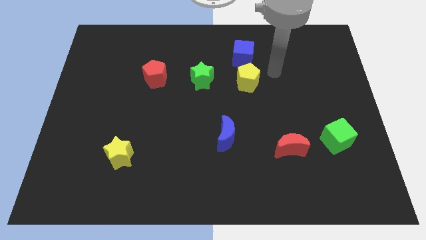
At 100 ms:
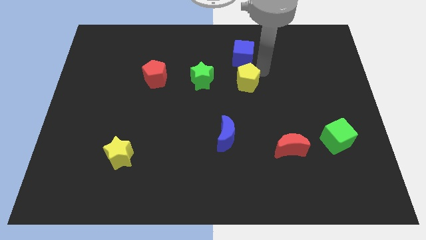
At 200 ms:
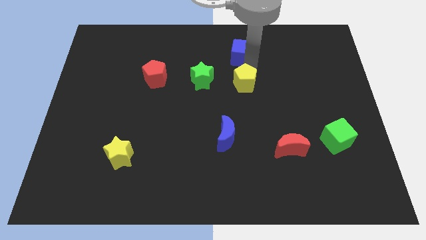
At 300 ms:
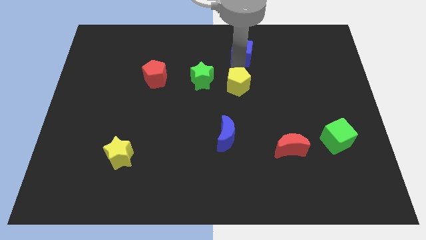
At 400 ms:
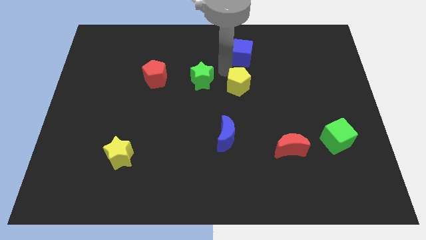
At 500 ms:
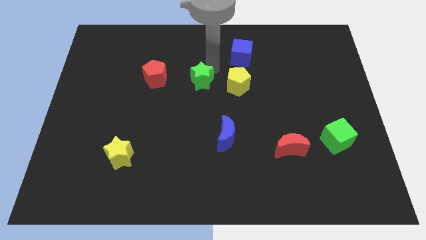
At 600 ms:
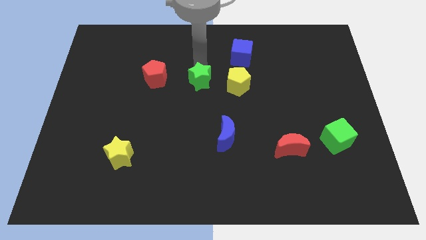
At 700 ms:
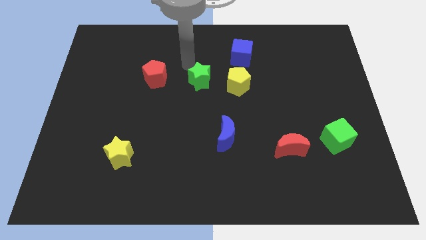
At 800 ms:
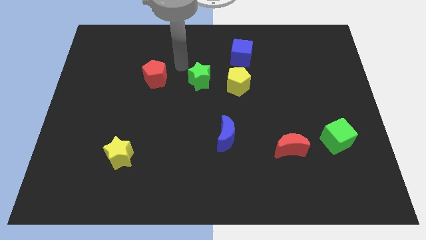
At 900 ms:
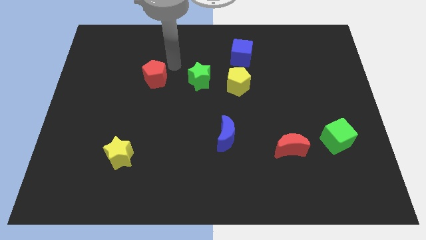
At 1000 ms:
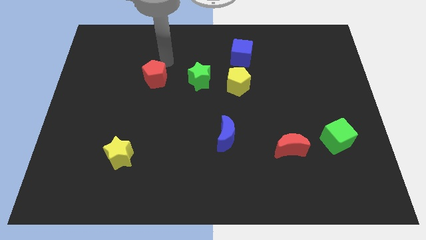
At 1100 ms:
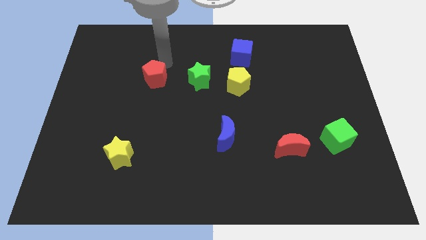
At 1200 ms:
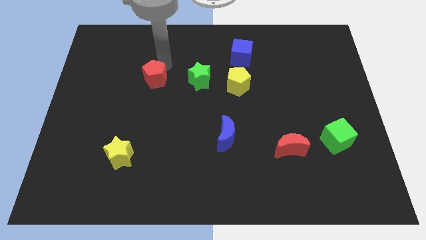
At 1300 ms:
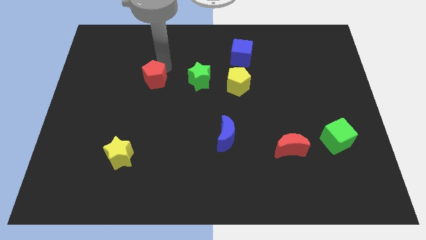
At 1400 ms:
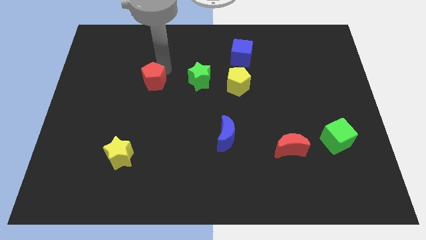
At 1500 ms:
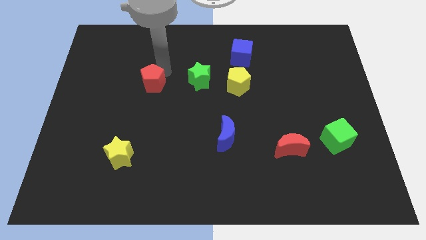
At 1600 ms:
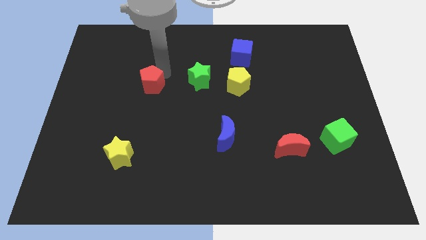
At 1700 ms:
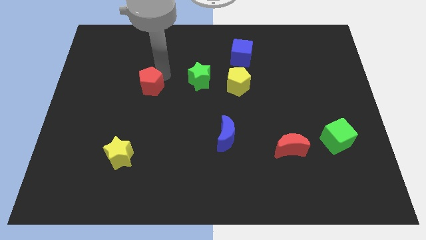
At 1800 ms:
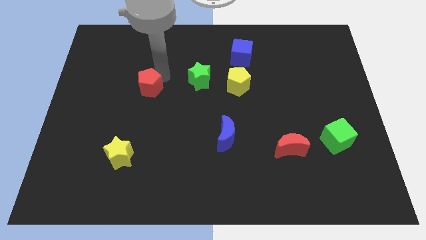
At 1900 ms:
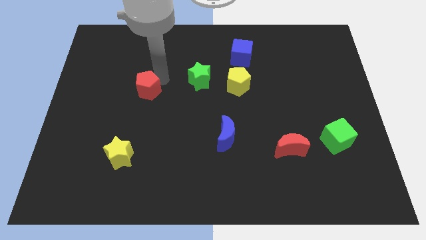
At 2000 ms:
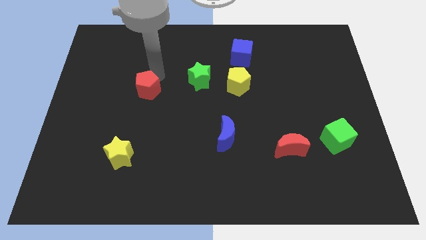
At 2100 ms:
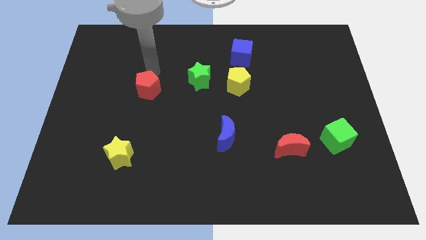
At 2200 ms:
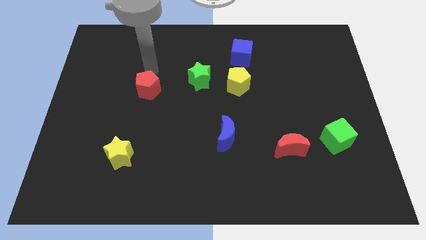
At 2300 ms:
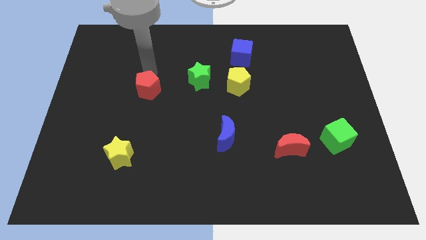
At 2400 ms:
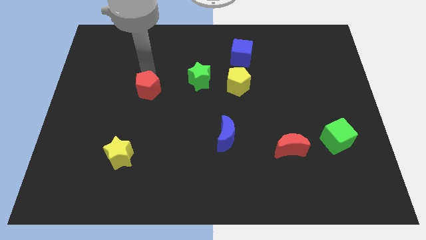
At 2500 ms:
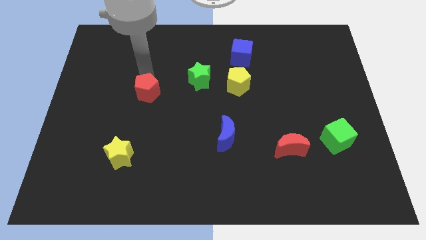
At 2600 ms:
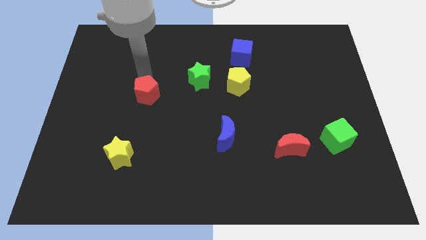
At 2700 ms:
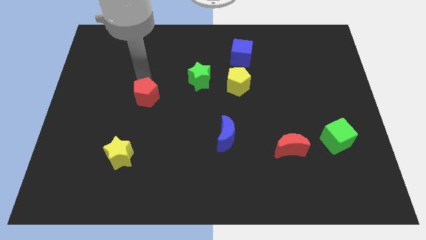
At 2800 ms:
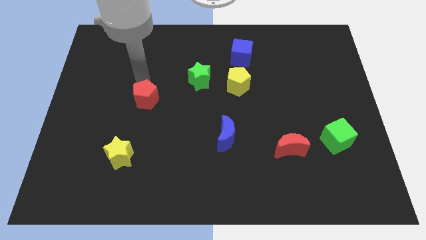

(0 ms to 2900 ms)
push the red pentagon downwards somewhat

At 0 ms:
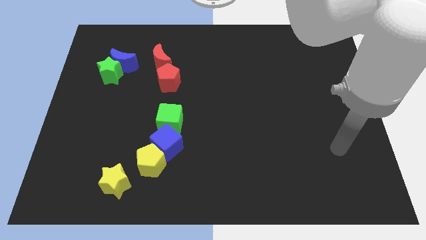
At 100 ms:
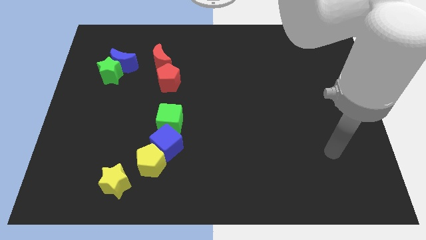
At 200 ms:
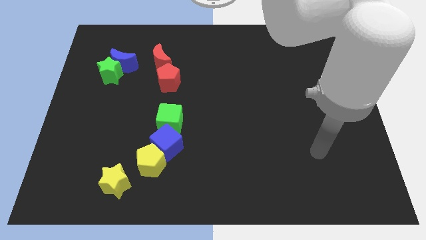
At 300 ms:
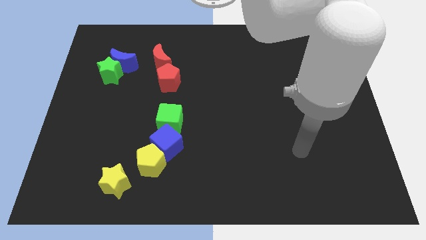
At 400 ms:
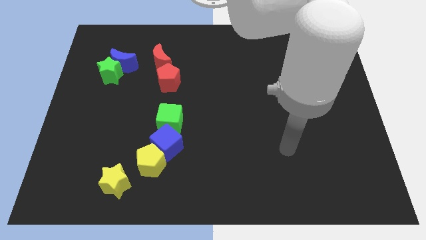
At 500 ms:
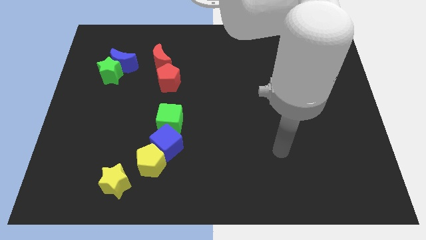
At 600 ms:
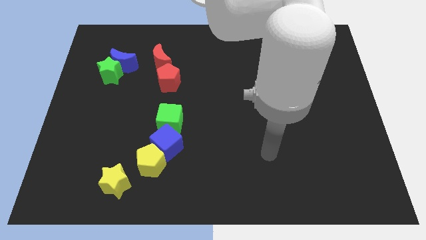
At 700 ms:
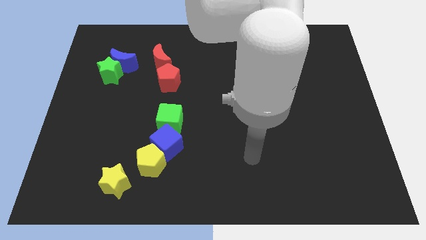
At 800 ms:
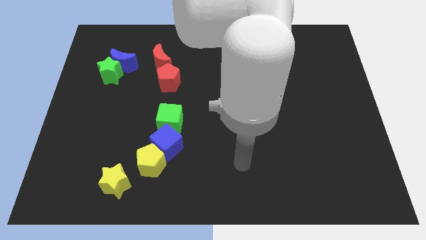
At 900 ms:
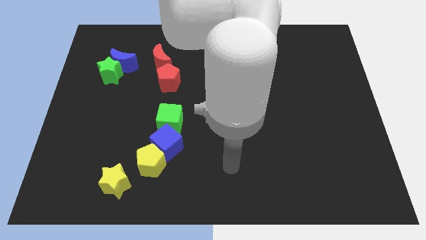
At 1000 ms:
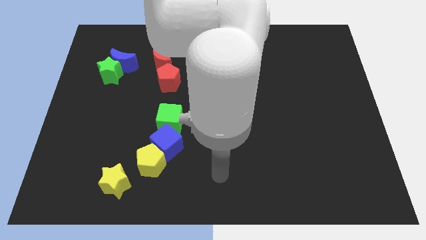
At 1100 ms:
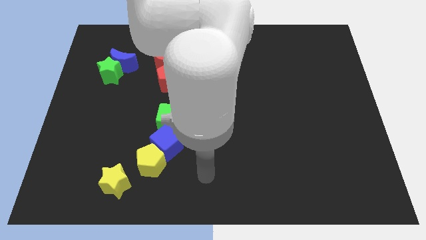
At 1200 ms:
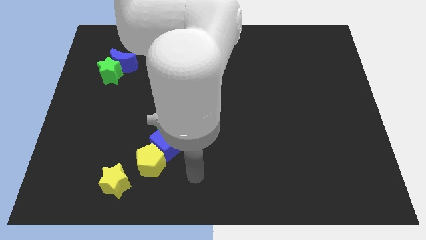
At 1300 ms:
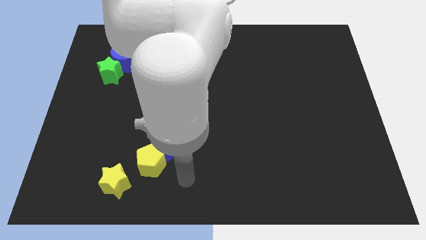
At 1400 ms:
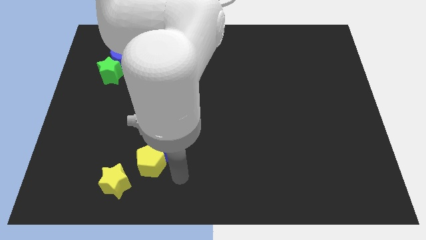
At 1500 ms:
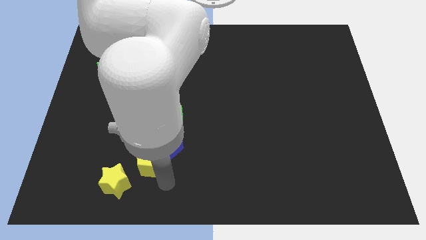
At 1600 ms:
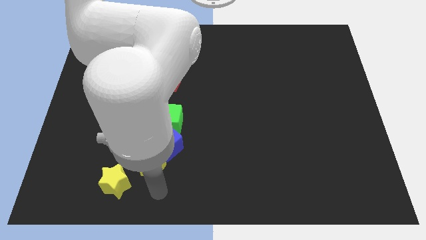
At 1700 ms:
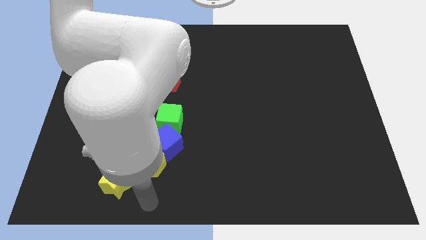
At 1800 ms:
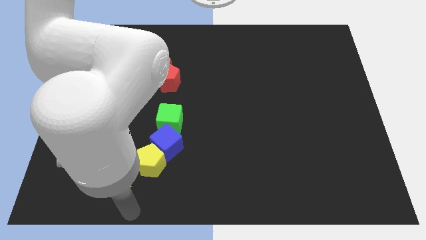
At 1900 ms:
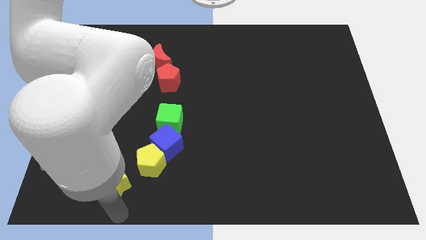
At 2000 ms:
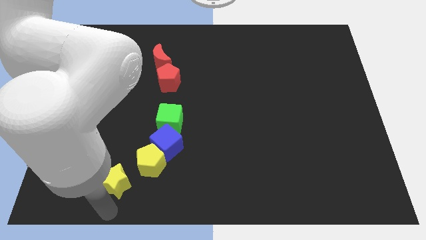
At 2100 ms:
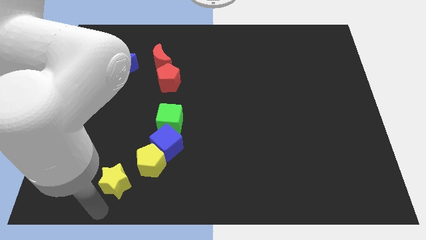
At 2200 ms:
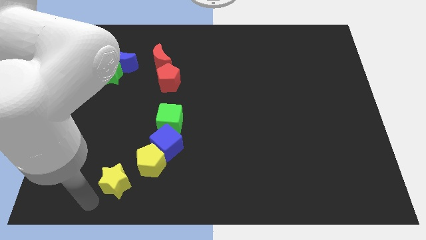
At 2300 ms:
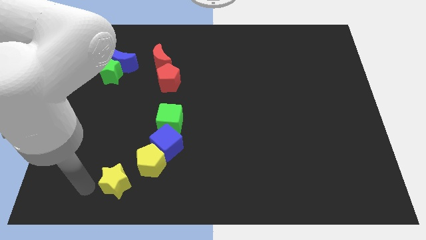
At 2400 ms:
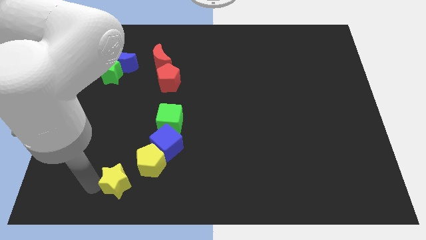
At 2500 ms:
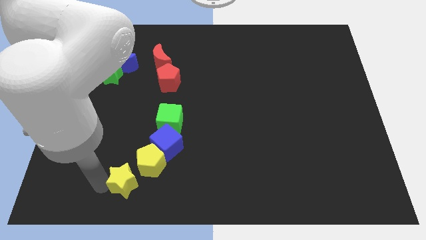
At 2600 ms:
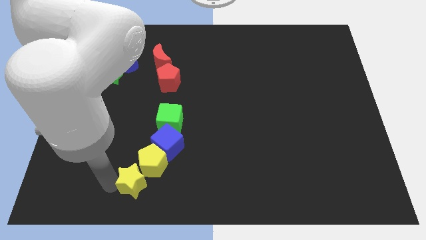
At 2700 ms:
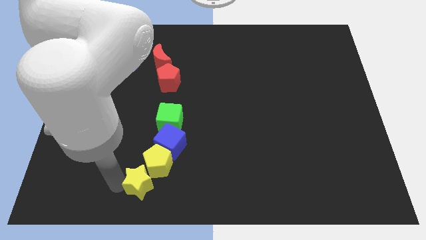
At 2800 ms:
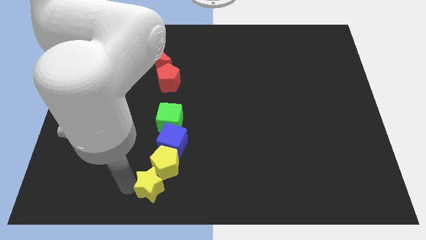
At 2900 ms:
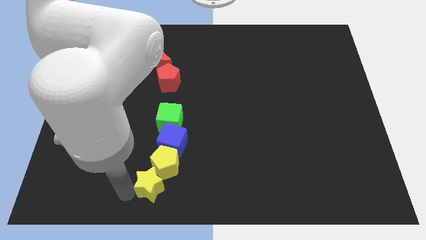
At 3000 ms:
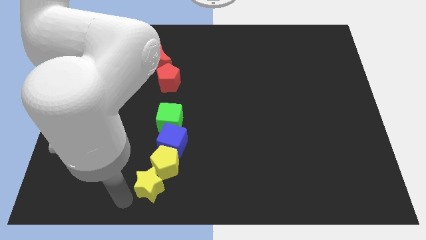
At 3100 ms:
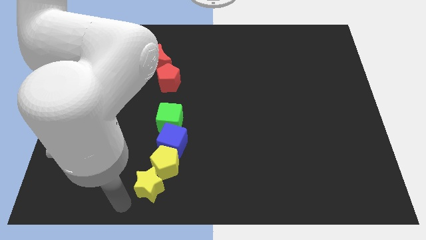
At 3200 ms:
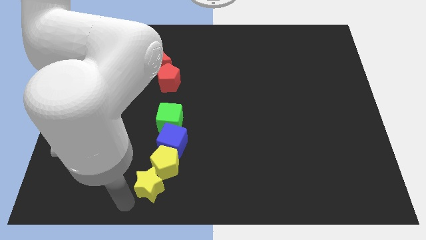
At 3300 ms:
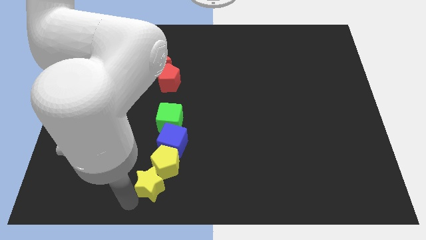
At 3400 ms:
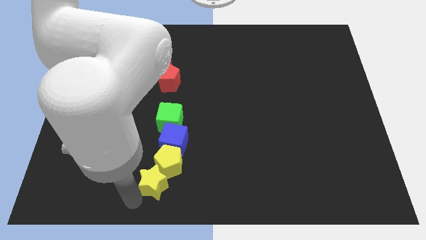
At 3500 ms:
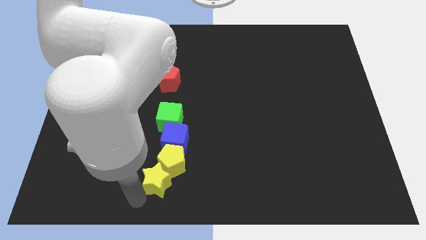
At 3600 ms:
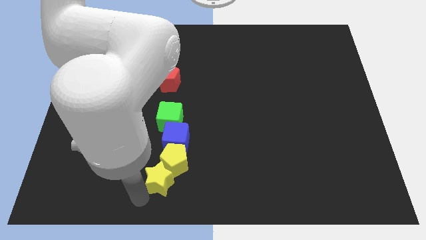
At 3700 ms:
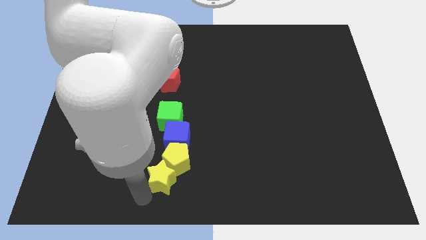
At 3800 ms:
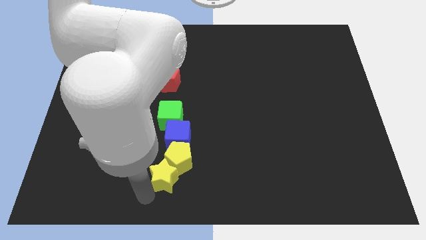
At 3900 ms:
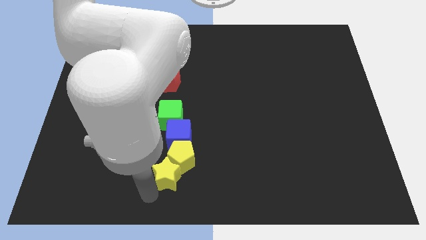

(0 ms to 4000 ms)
slide the yellow star up and then right a little bit

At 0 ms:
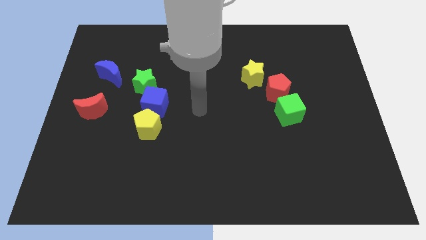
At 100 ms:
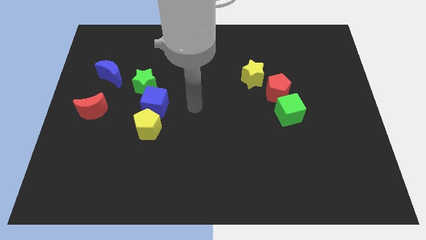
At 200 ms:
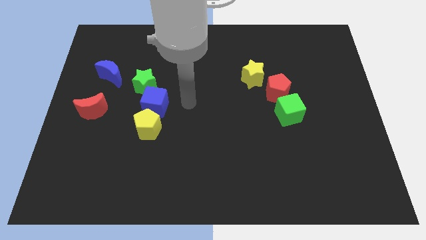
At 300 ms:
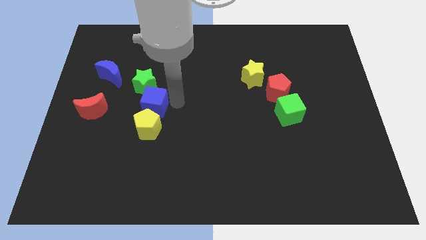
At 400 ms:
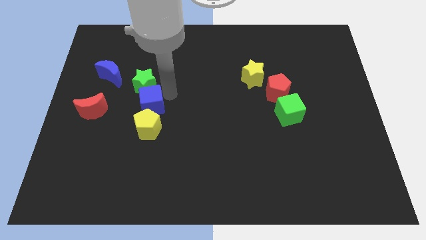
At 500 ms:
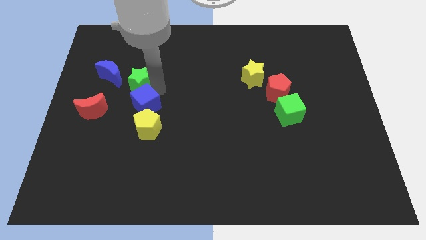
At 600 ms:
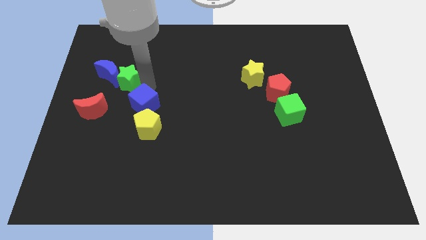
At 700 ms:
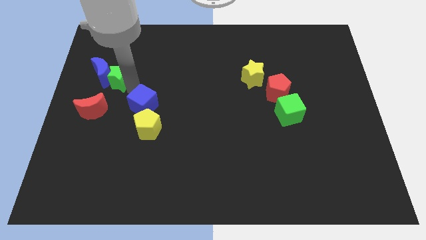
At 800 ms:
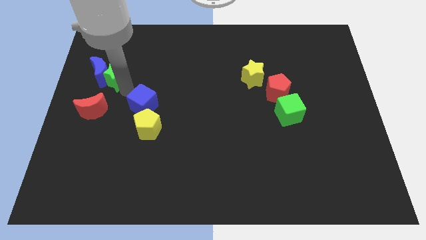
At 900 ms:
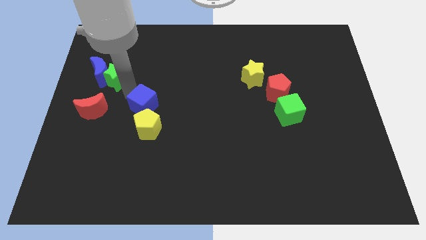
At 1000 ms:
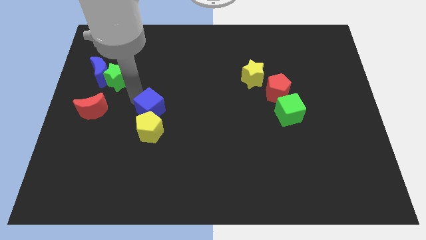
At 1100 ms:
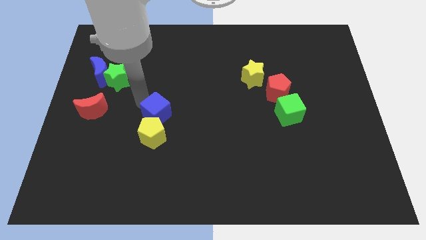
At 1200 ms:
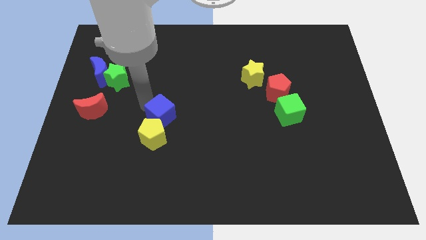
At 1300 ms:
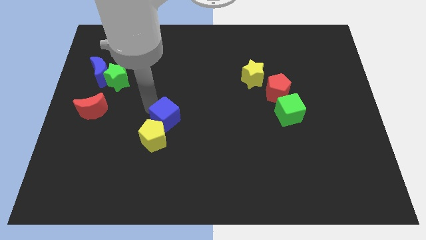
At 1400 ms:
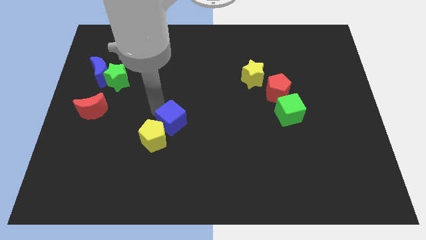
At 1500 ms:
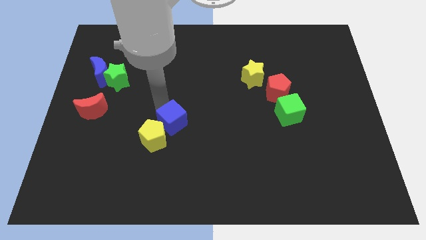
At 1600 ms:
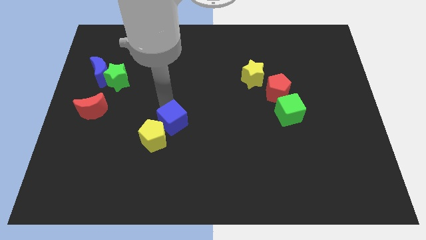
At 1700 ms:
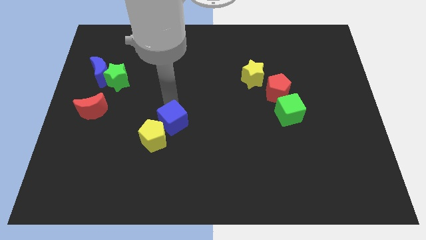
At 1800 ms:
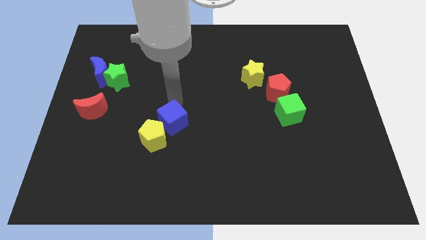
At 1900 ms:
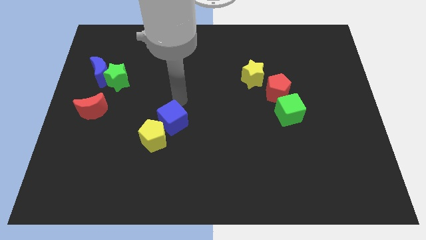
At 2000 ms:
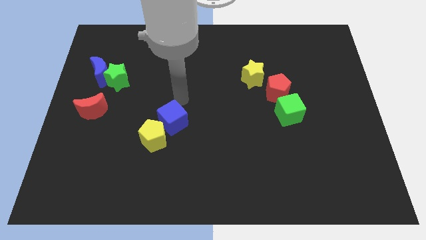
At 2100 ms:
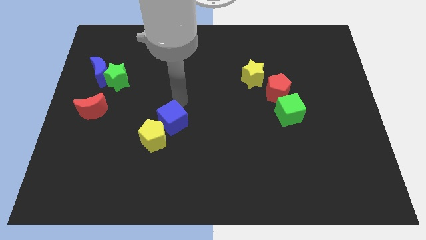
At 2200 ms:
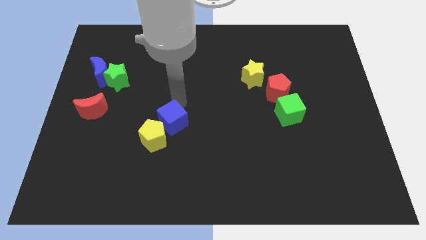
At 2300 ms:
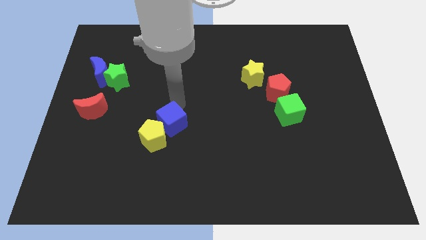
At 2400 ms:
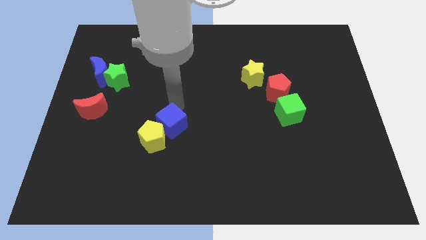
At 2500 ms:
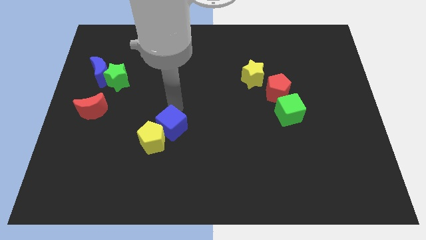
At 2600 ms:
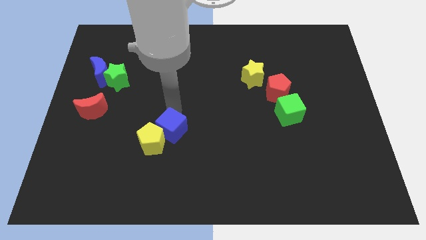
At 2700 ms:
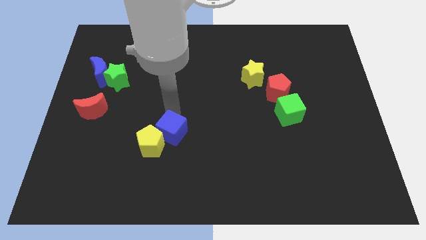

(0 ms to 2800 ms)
push the blue cube down slightly
